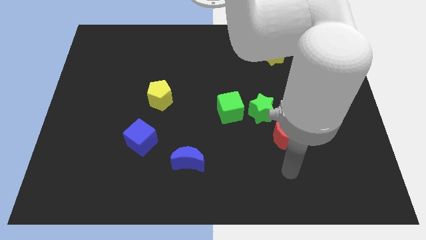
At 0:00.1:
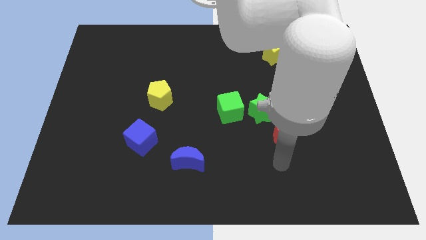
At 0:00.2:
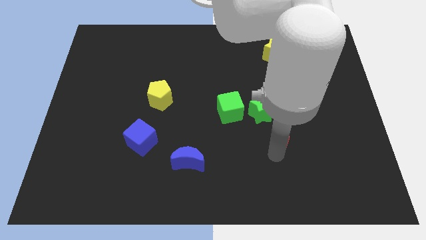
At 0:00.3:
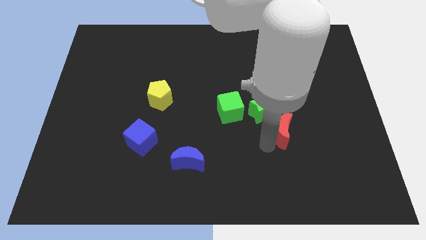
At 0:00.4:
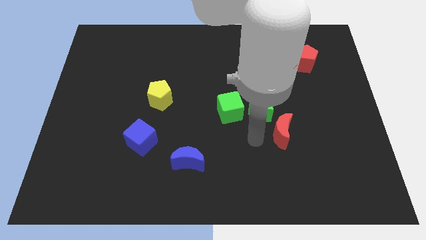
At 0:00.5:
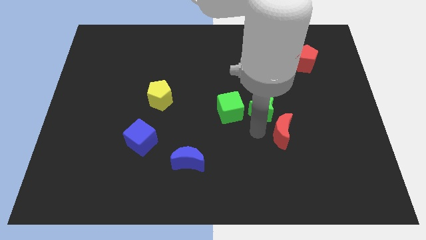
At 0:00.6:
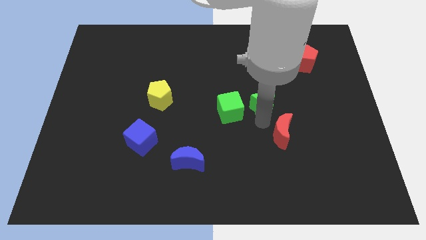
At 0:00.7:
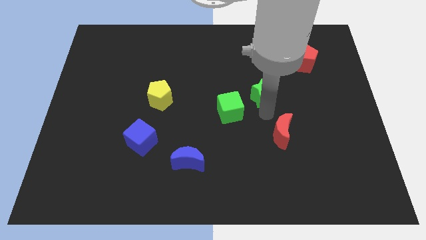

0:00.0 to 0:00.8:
pull the red moon apart from the green star

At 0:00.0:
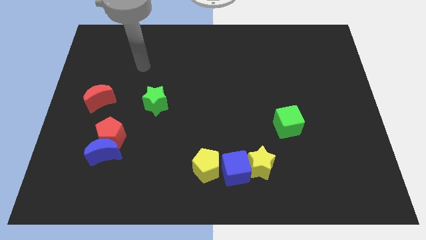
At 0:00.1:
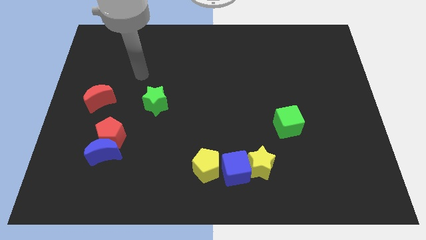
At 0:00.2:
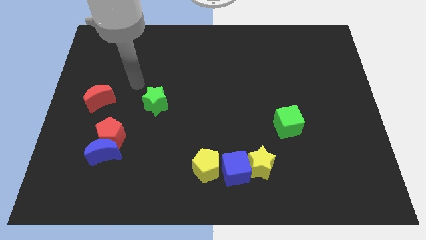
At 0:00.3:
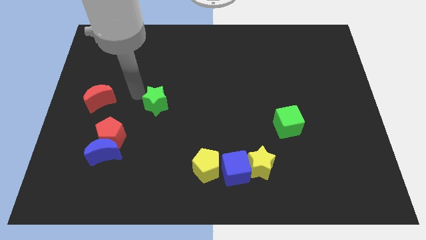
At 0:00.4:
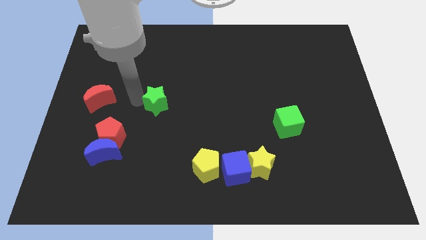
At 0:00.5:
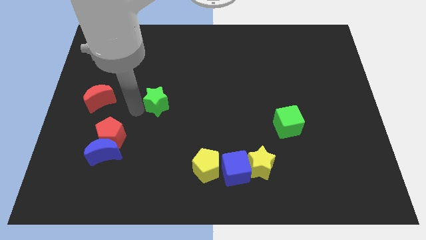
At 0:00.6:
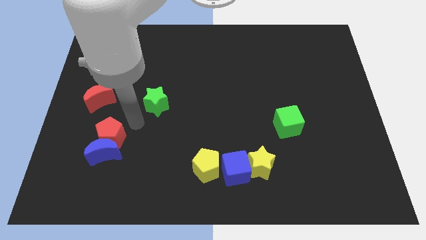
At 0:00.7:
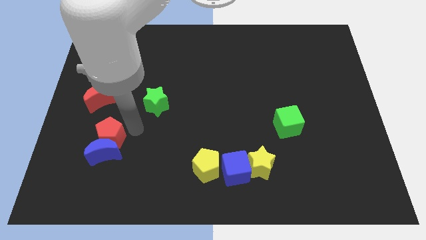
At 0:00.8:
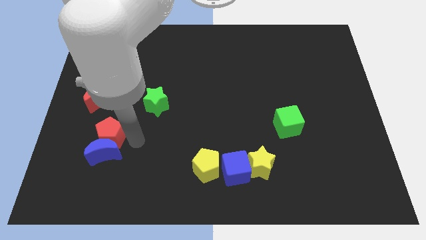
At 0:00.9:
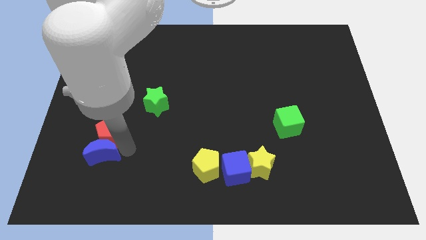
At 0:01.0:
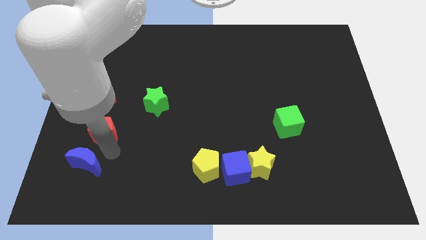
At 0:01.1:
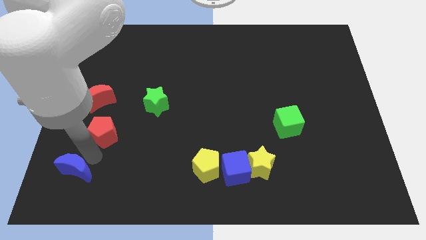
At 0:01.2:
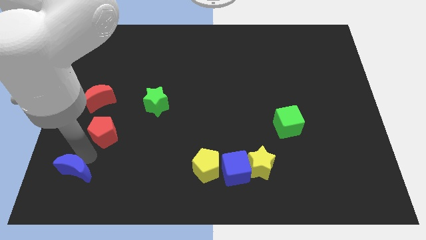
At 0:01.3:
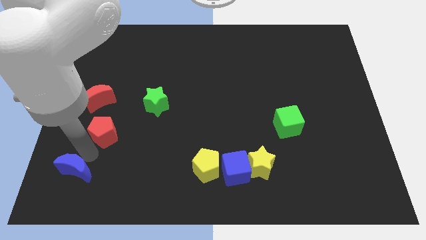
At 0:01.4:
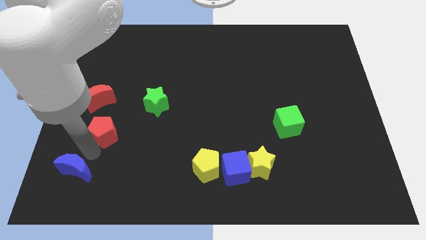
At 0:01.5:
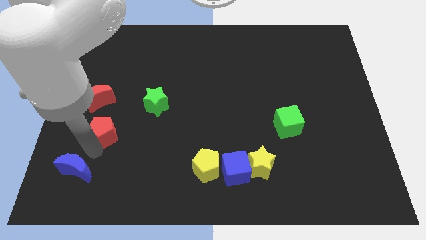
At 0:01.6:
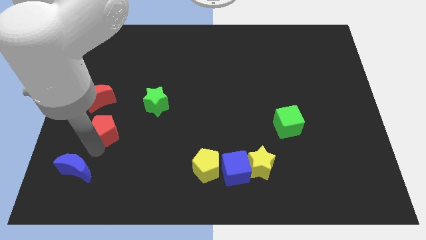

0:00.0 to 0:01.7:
separate the red pentagon from the blue moon

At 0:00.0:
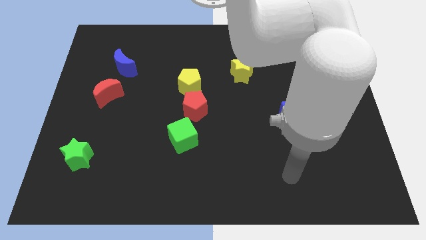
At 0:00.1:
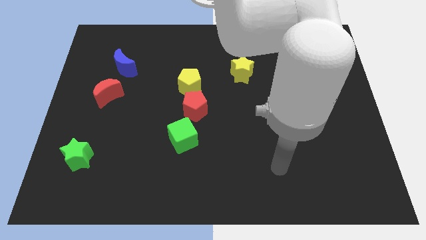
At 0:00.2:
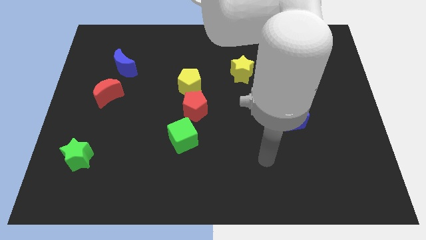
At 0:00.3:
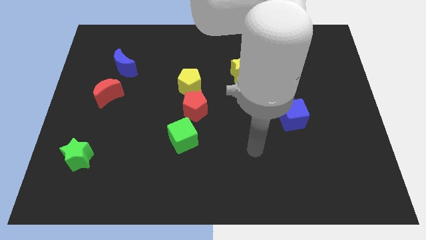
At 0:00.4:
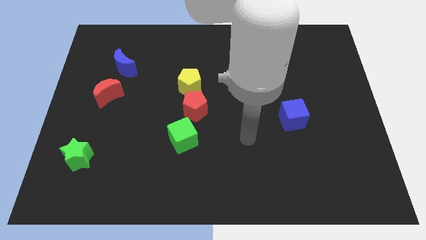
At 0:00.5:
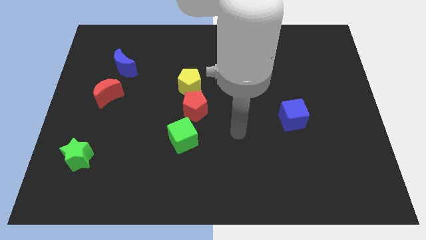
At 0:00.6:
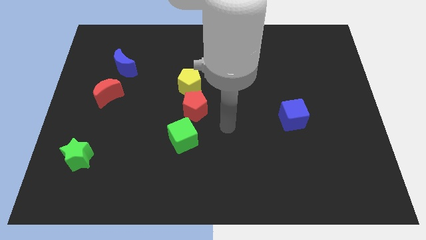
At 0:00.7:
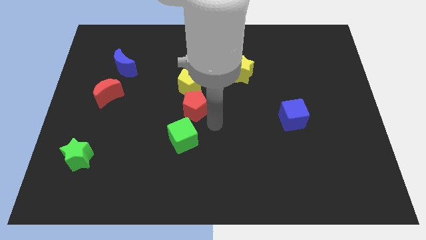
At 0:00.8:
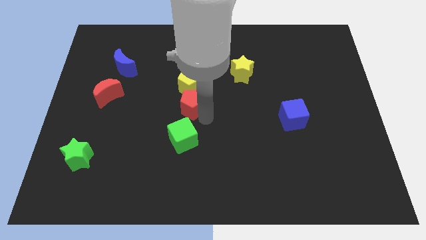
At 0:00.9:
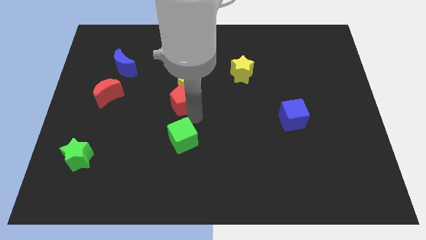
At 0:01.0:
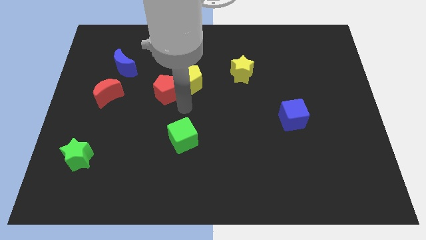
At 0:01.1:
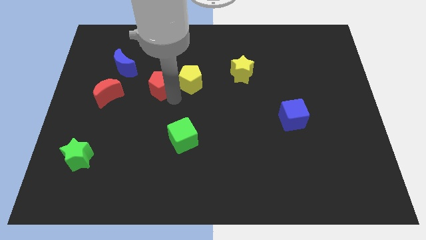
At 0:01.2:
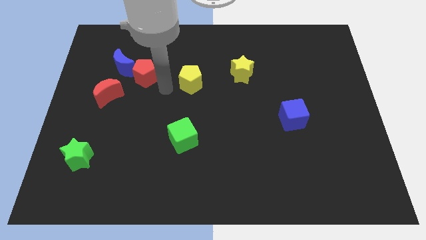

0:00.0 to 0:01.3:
move the yellow pentagon away from the red pentagon

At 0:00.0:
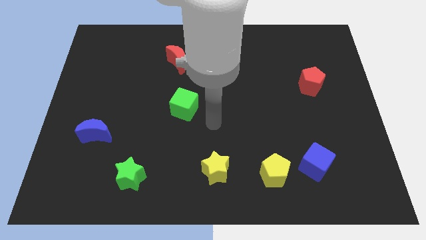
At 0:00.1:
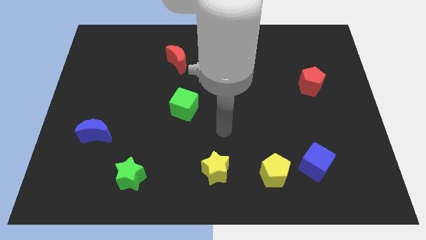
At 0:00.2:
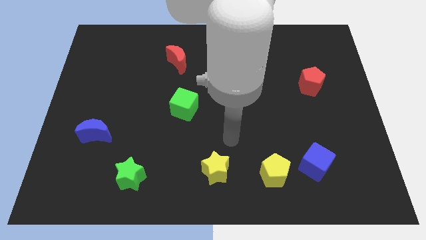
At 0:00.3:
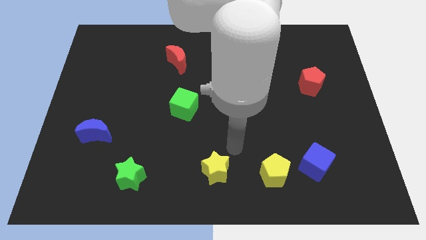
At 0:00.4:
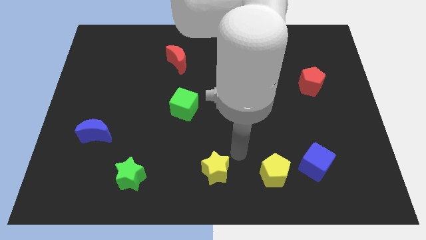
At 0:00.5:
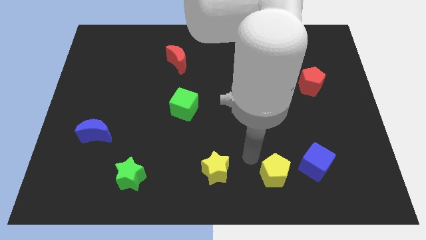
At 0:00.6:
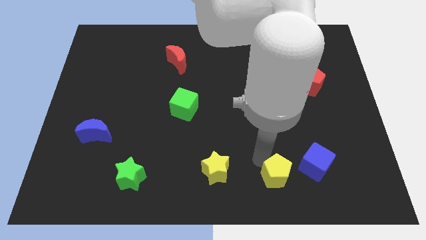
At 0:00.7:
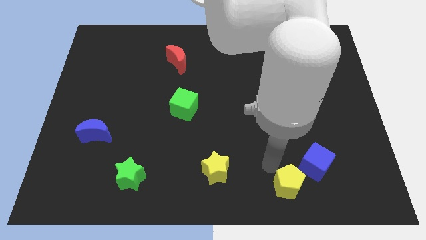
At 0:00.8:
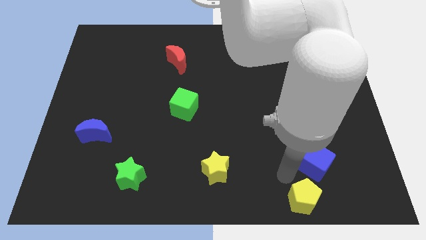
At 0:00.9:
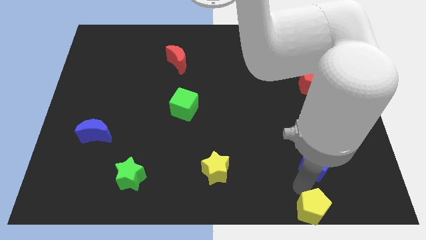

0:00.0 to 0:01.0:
move the blue cube away from the yellow pentagon

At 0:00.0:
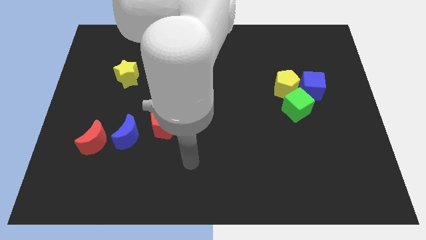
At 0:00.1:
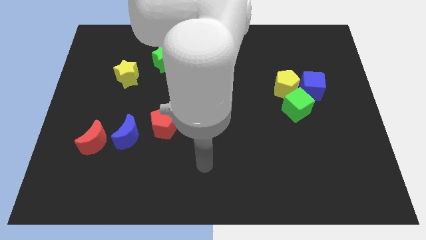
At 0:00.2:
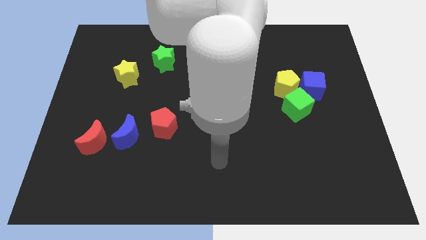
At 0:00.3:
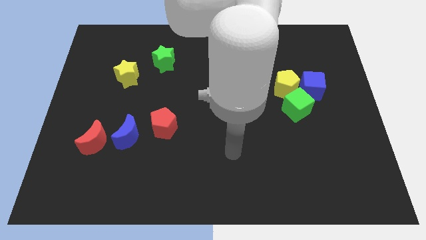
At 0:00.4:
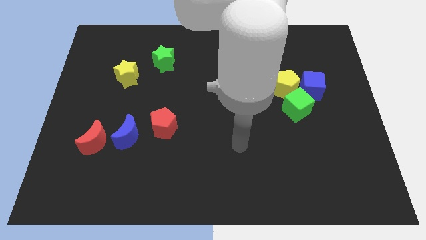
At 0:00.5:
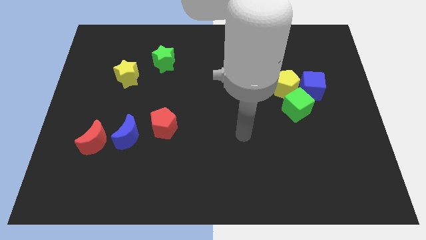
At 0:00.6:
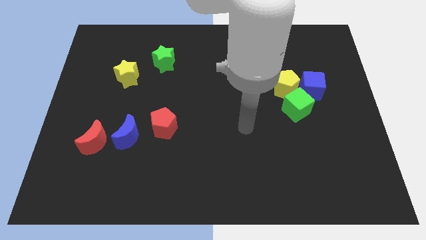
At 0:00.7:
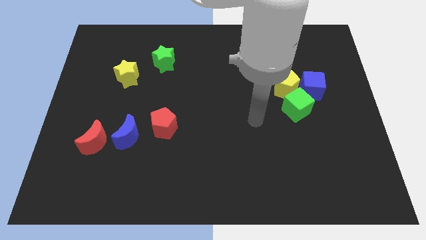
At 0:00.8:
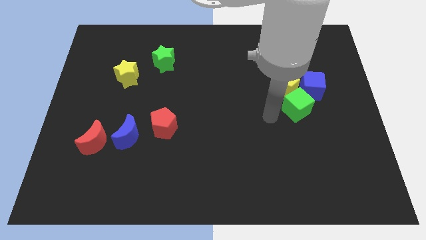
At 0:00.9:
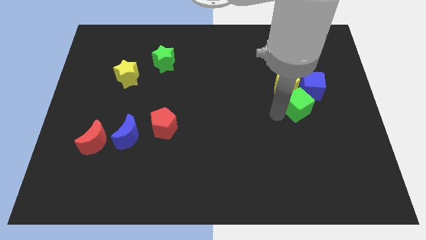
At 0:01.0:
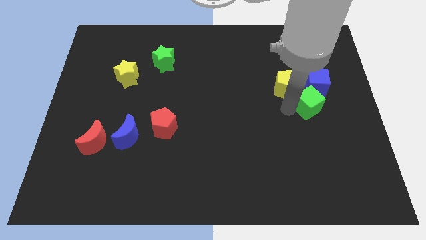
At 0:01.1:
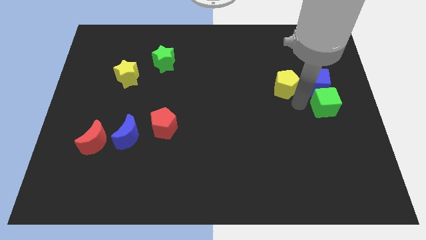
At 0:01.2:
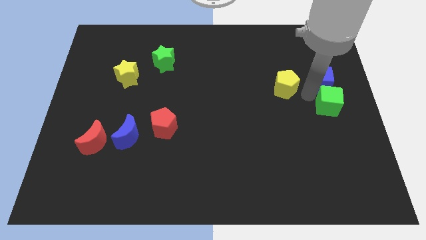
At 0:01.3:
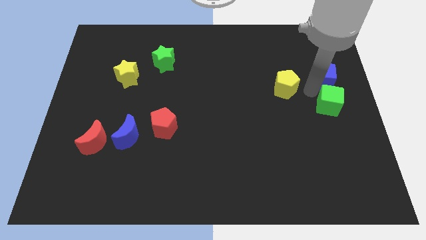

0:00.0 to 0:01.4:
pull the yellow pentagon apart from the blue cube and green cube

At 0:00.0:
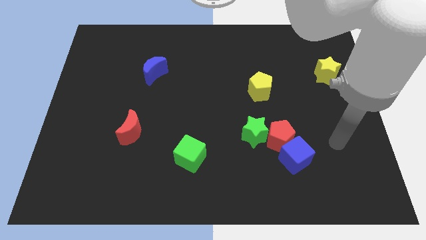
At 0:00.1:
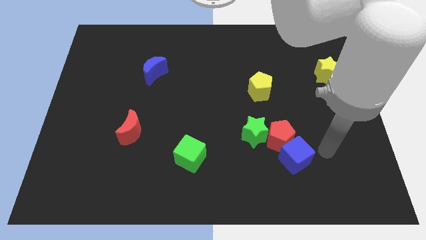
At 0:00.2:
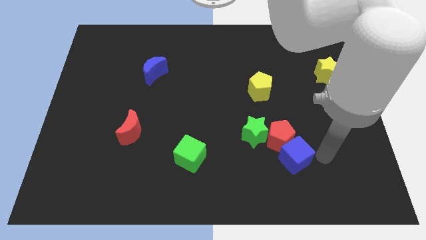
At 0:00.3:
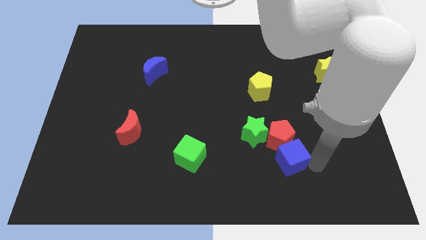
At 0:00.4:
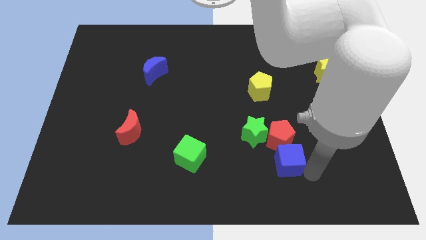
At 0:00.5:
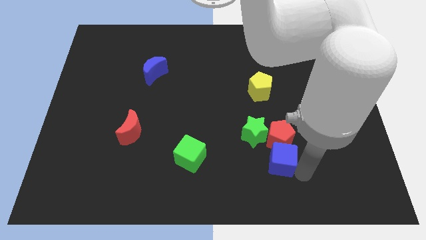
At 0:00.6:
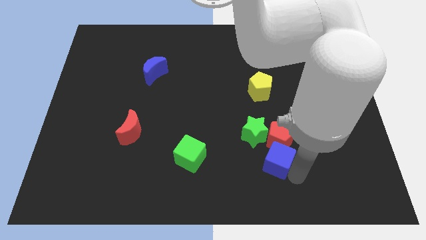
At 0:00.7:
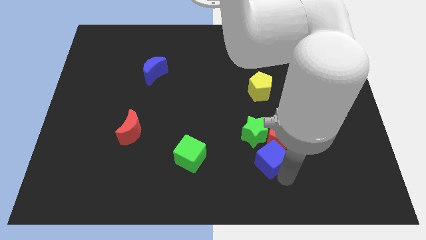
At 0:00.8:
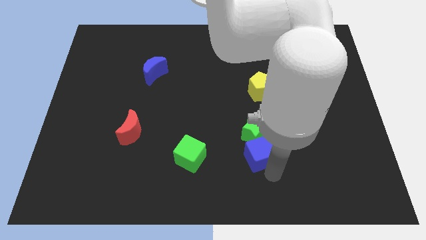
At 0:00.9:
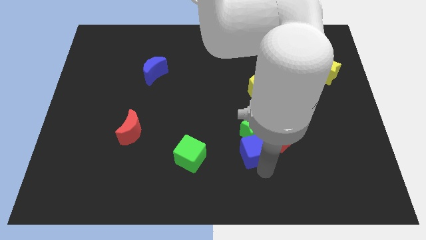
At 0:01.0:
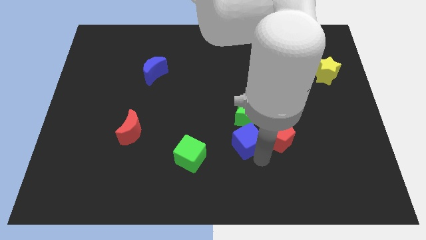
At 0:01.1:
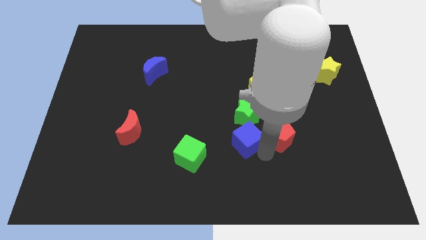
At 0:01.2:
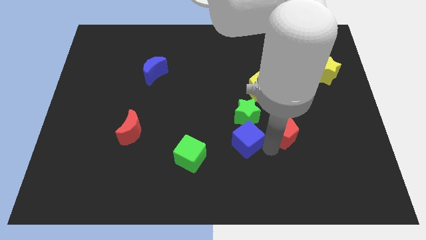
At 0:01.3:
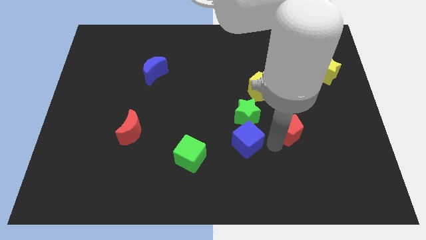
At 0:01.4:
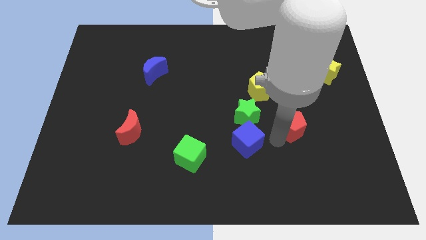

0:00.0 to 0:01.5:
move the red pentagon away from the blue cube and green star

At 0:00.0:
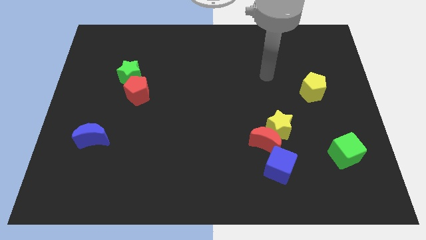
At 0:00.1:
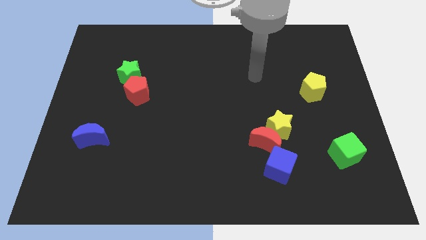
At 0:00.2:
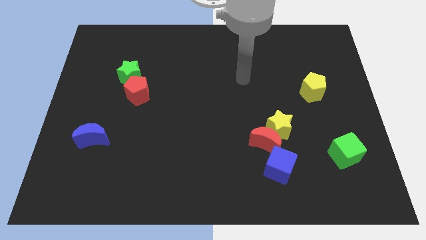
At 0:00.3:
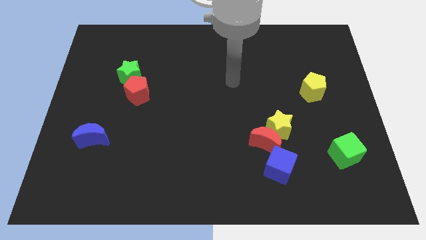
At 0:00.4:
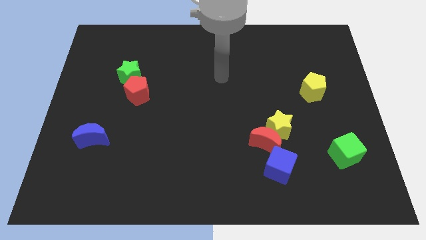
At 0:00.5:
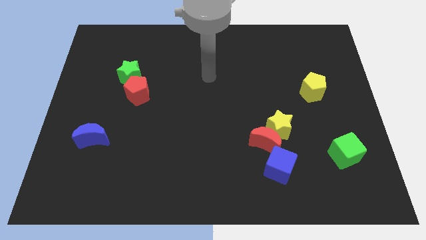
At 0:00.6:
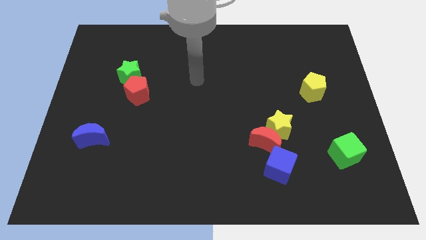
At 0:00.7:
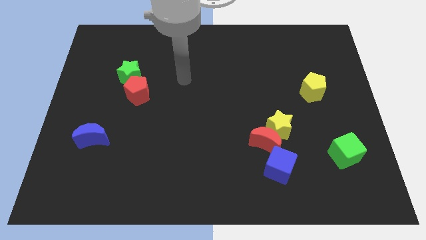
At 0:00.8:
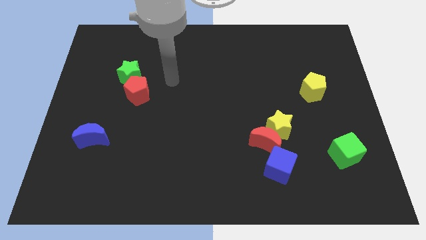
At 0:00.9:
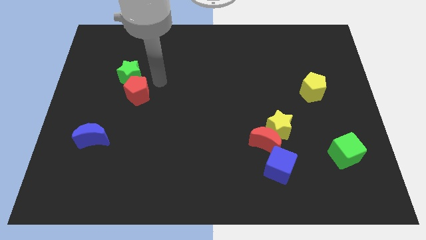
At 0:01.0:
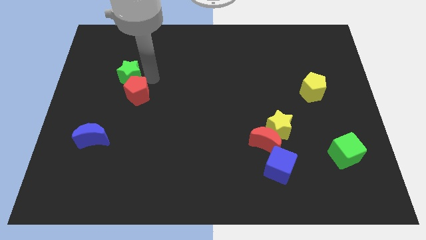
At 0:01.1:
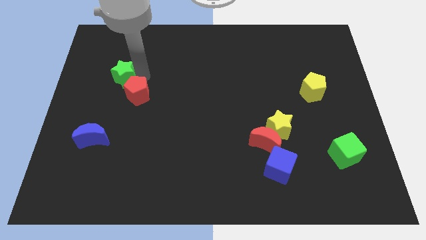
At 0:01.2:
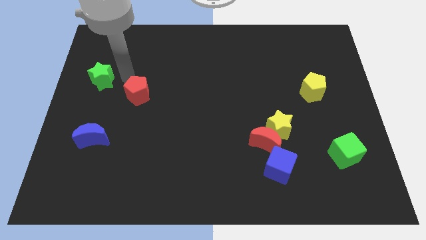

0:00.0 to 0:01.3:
move the red pentagon away from the green star
